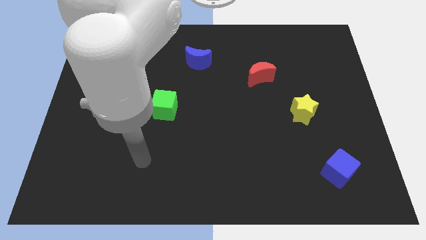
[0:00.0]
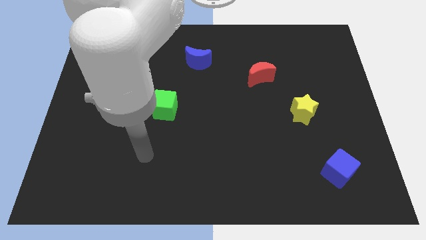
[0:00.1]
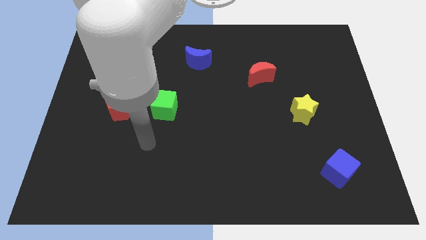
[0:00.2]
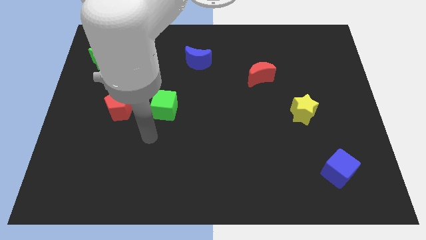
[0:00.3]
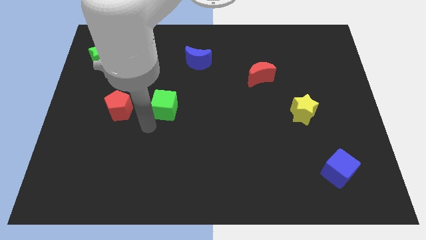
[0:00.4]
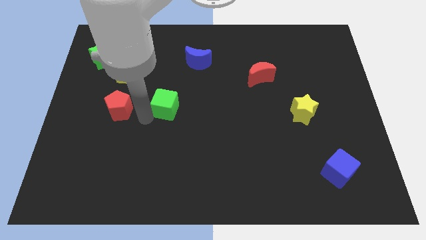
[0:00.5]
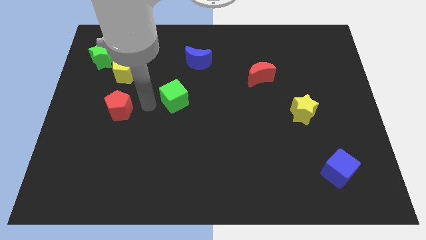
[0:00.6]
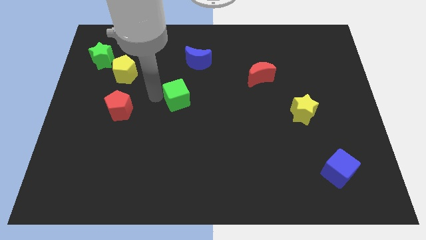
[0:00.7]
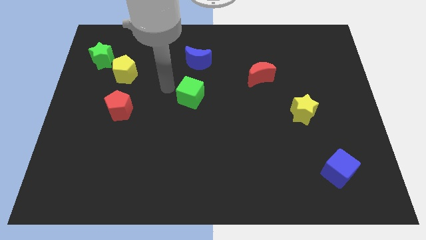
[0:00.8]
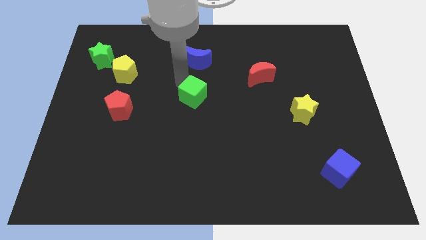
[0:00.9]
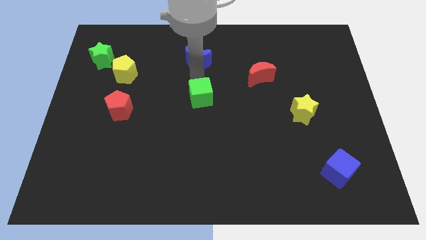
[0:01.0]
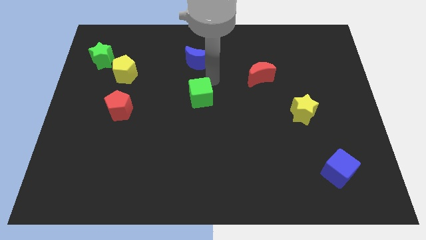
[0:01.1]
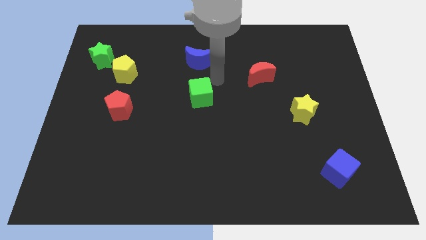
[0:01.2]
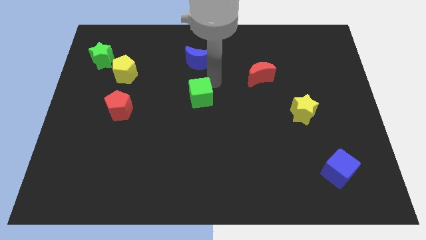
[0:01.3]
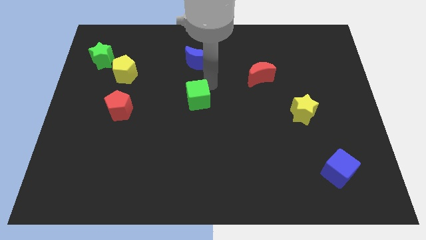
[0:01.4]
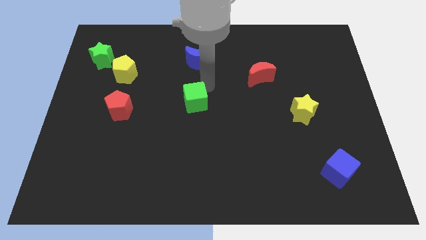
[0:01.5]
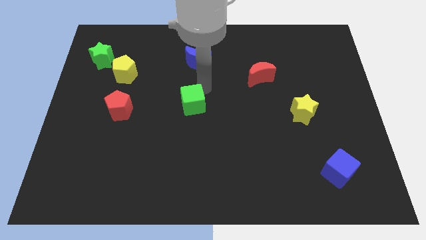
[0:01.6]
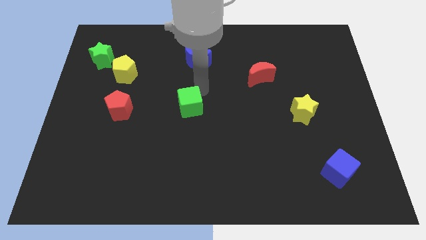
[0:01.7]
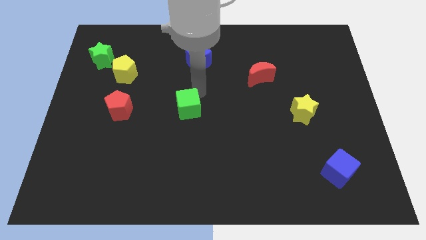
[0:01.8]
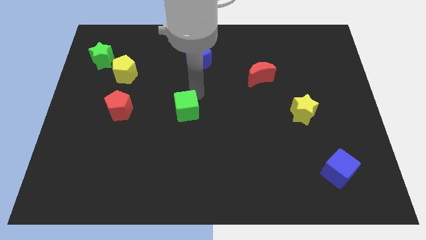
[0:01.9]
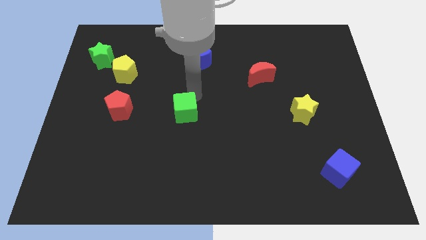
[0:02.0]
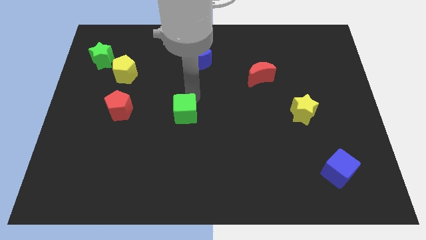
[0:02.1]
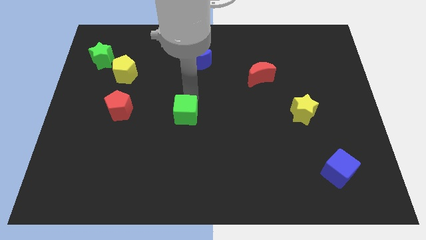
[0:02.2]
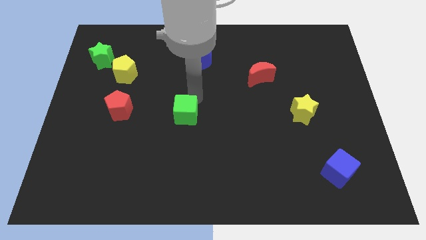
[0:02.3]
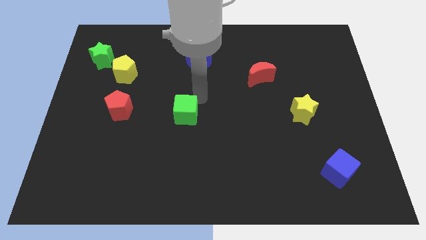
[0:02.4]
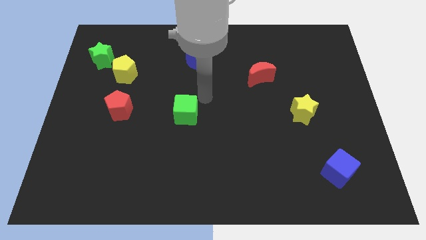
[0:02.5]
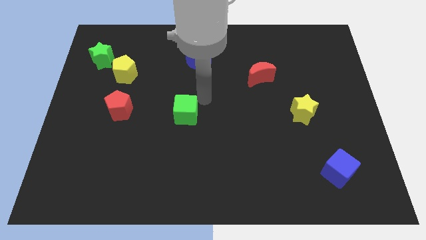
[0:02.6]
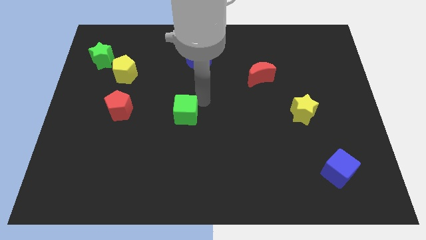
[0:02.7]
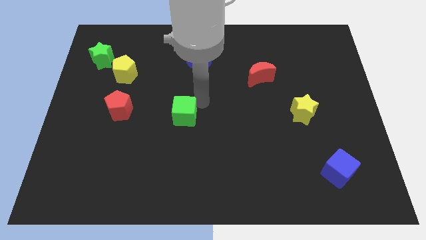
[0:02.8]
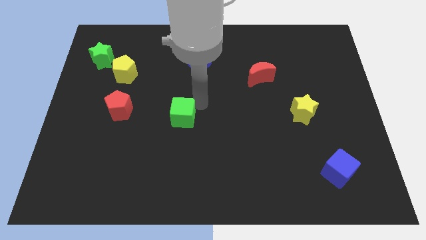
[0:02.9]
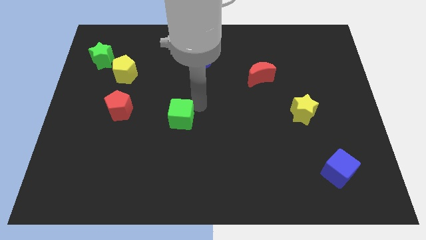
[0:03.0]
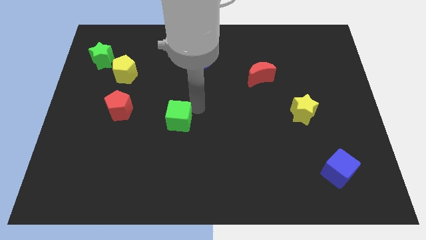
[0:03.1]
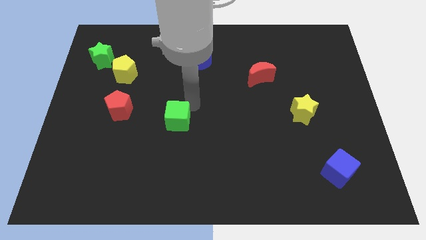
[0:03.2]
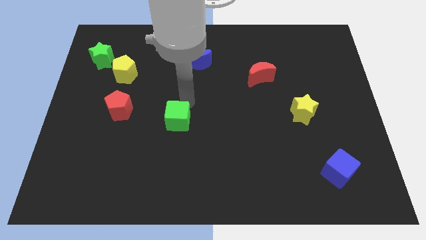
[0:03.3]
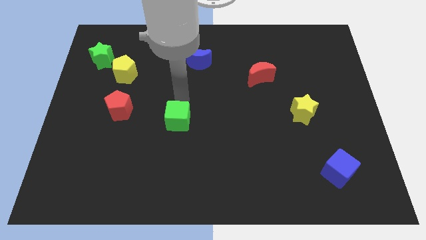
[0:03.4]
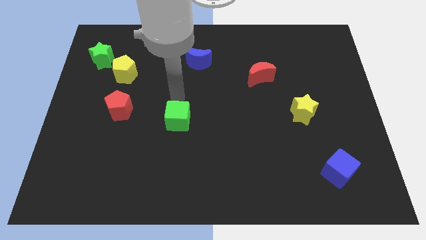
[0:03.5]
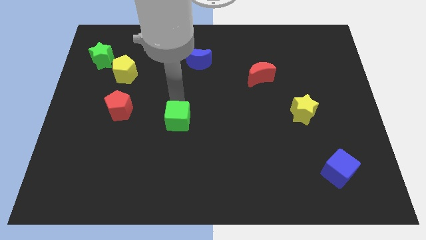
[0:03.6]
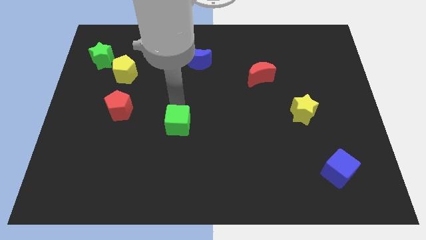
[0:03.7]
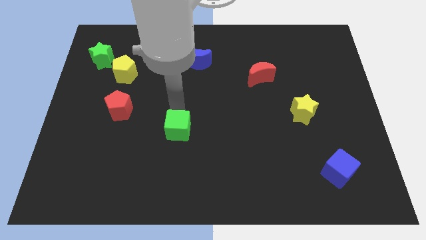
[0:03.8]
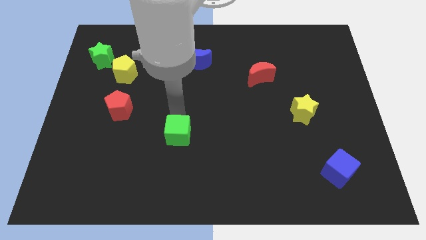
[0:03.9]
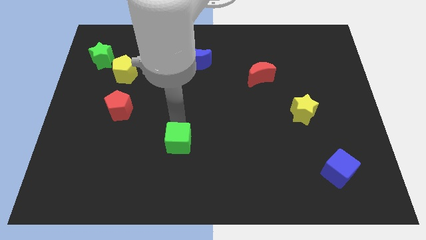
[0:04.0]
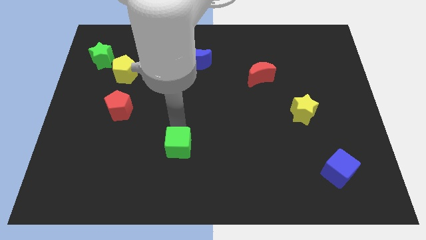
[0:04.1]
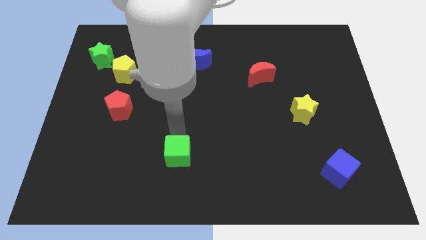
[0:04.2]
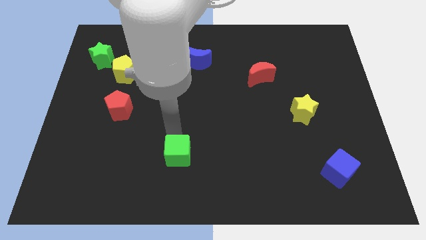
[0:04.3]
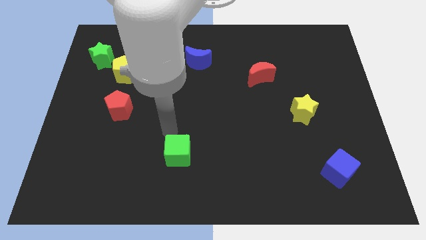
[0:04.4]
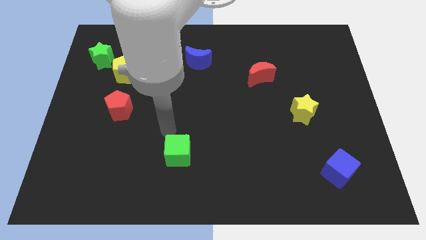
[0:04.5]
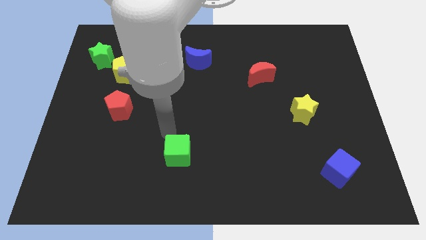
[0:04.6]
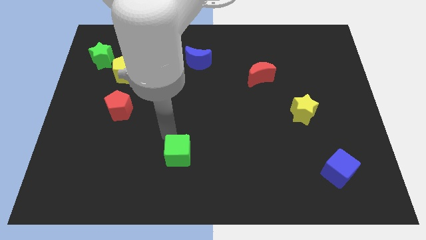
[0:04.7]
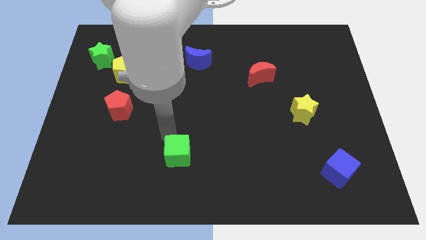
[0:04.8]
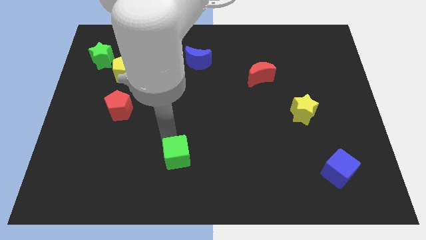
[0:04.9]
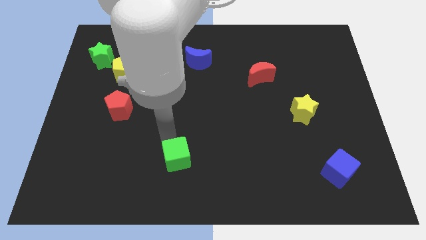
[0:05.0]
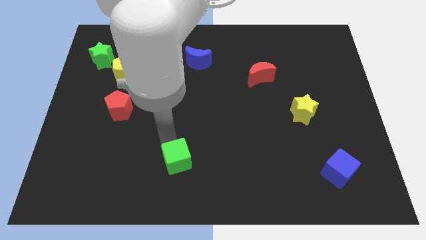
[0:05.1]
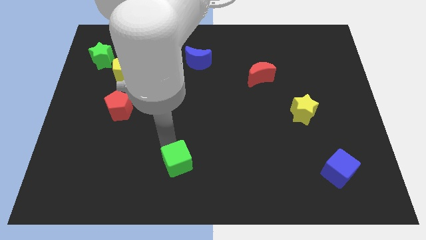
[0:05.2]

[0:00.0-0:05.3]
put the green cube to the bottom
